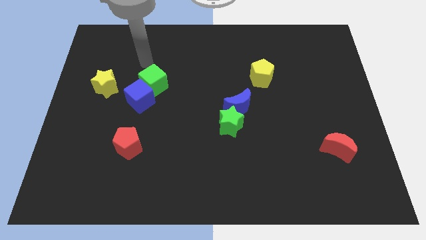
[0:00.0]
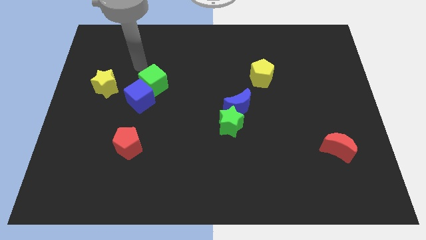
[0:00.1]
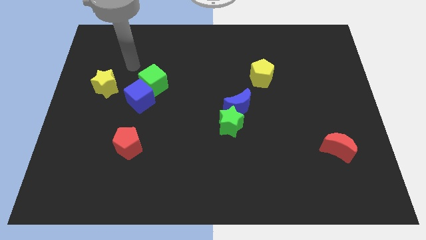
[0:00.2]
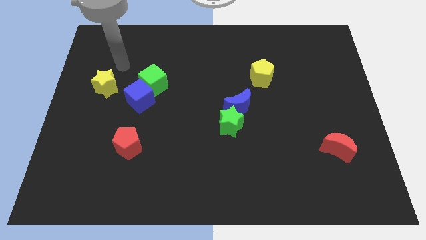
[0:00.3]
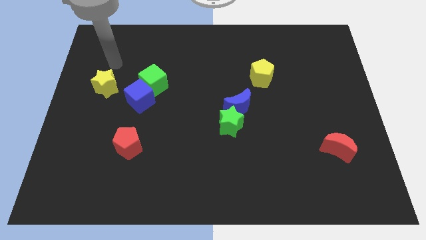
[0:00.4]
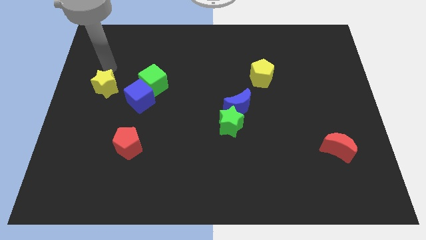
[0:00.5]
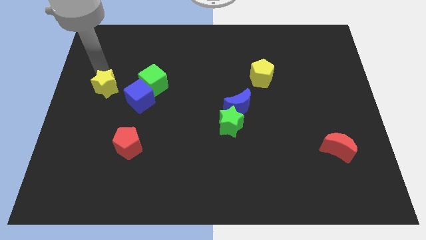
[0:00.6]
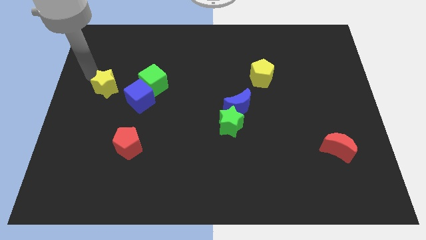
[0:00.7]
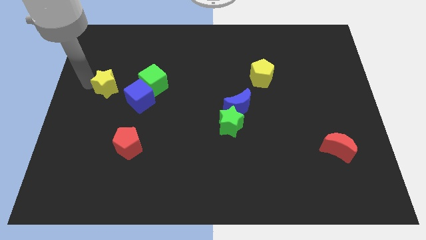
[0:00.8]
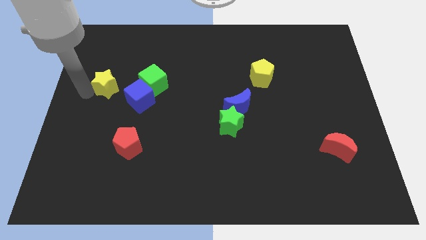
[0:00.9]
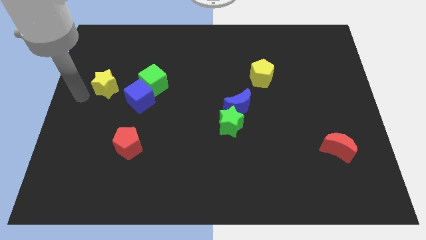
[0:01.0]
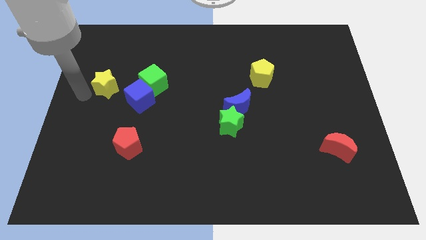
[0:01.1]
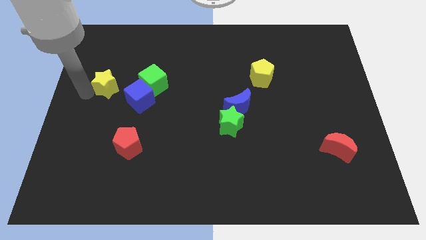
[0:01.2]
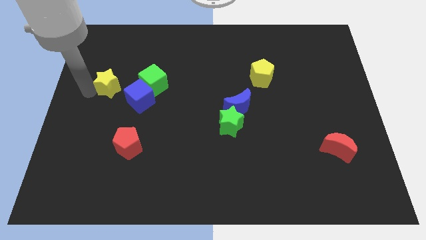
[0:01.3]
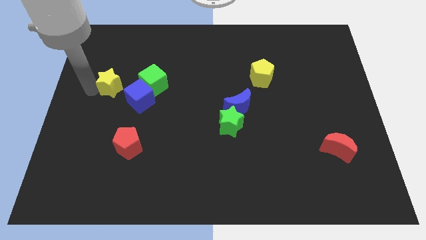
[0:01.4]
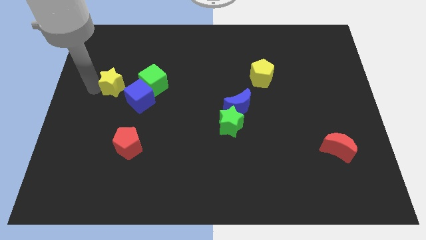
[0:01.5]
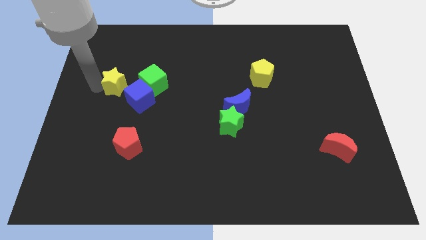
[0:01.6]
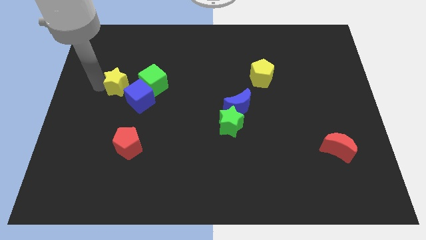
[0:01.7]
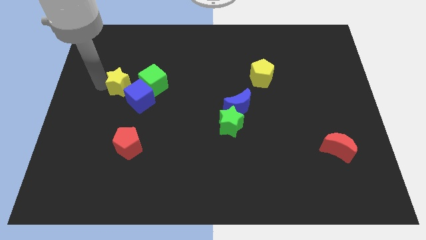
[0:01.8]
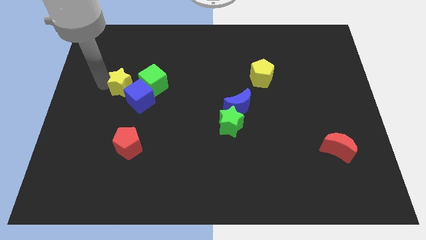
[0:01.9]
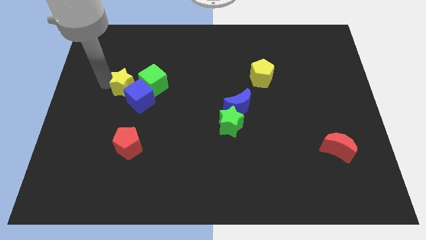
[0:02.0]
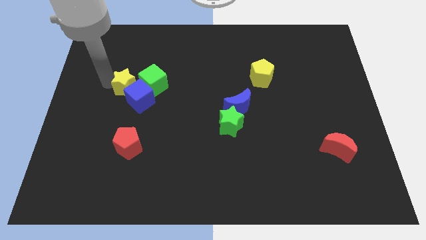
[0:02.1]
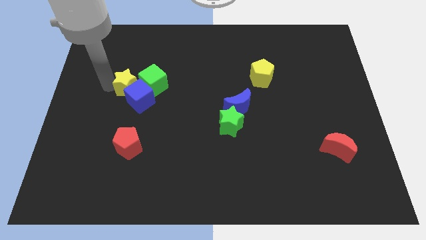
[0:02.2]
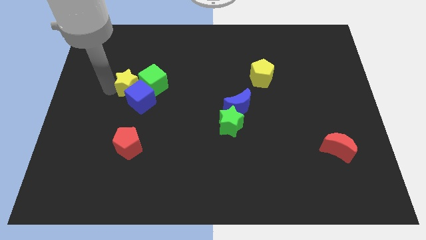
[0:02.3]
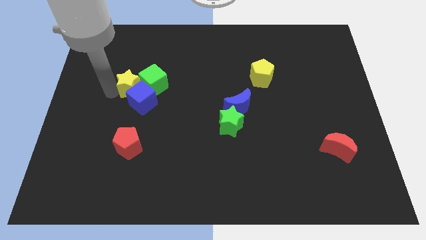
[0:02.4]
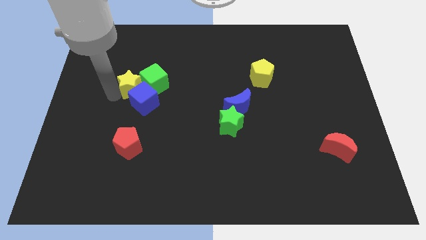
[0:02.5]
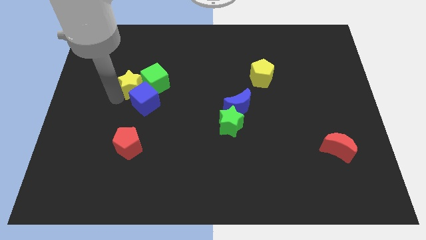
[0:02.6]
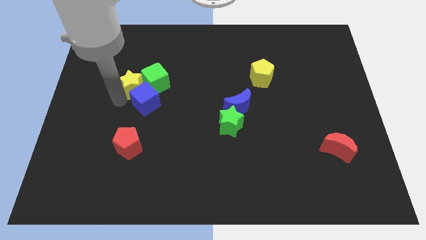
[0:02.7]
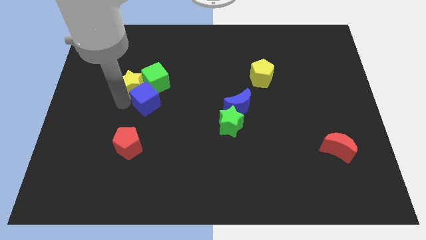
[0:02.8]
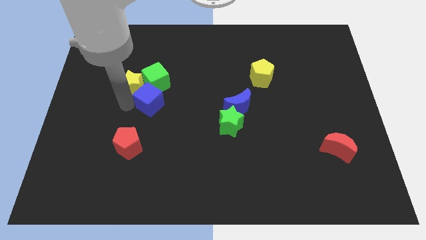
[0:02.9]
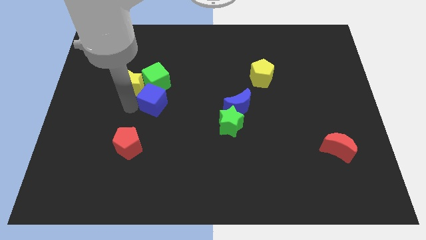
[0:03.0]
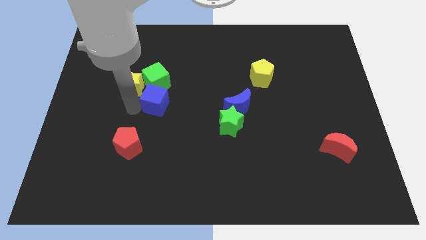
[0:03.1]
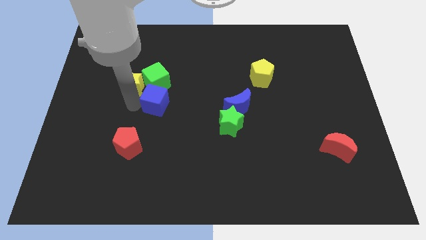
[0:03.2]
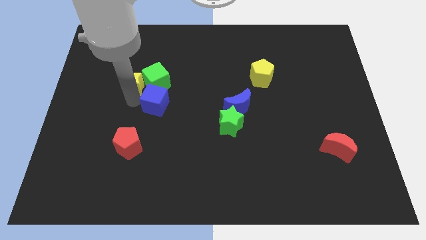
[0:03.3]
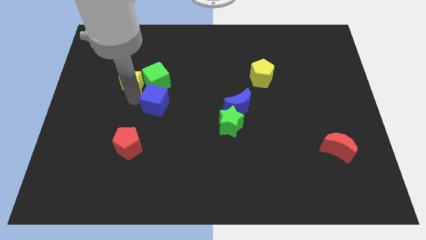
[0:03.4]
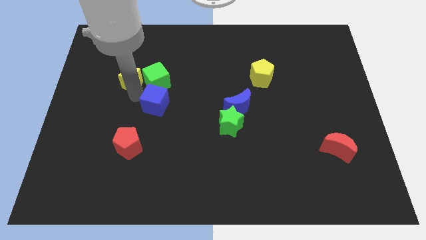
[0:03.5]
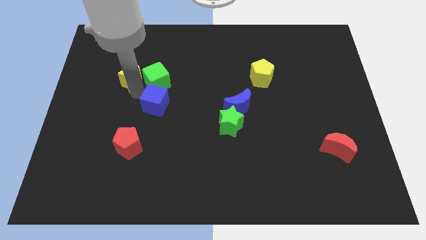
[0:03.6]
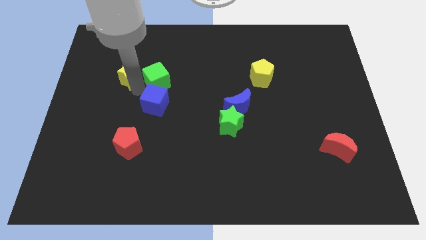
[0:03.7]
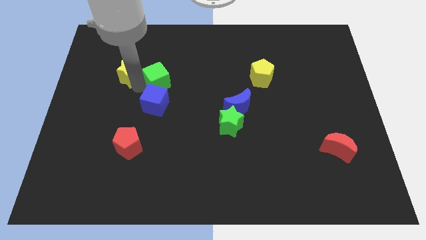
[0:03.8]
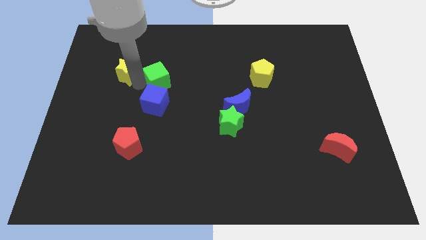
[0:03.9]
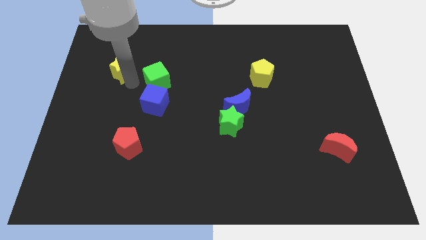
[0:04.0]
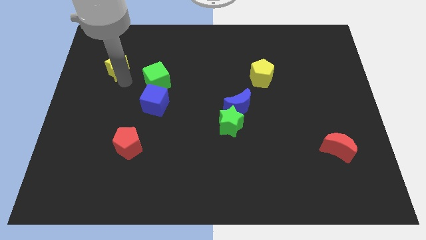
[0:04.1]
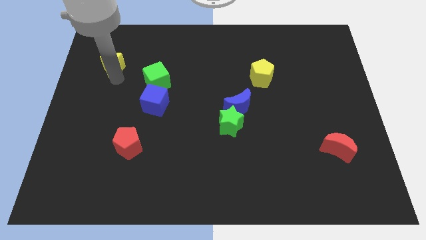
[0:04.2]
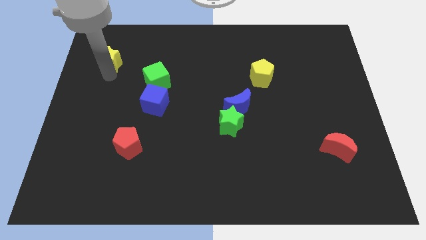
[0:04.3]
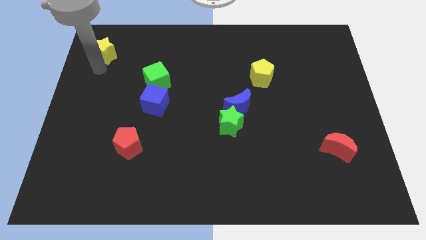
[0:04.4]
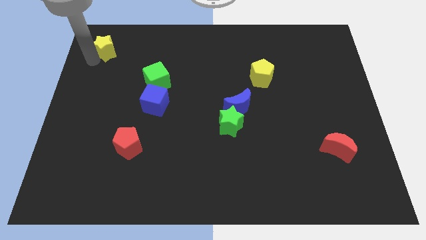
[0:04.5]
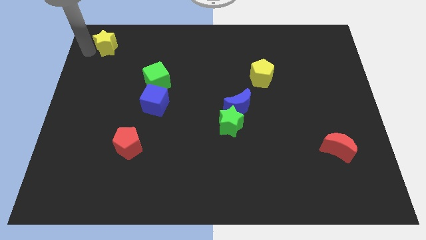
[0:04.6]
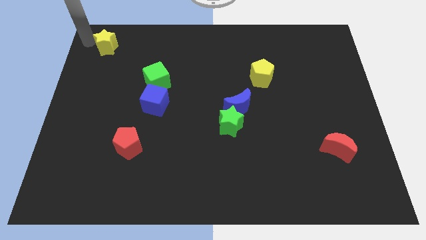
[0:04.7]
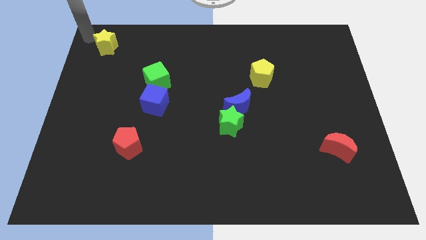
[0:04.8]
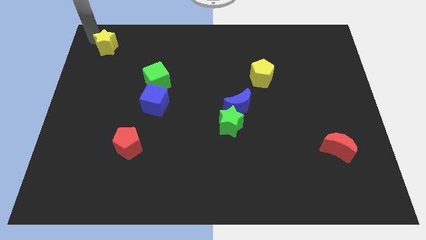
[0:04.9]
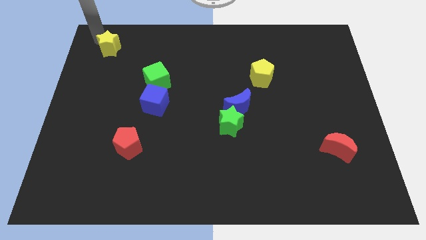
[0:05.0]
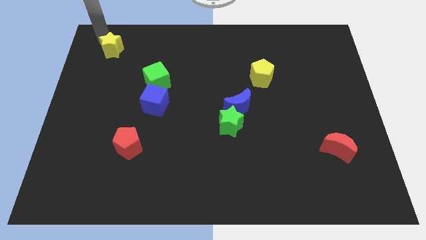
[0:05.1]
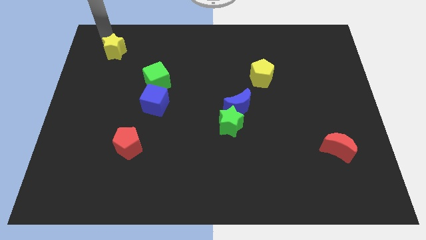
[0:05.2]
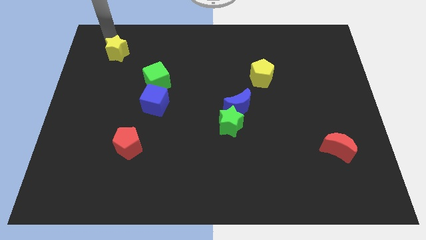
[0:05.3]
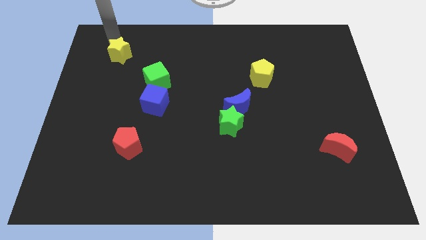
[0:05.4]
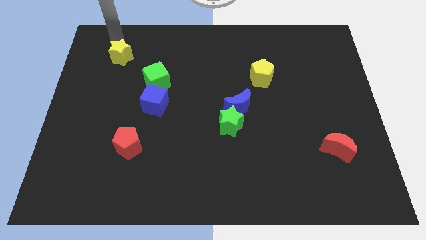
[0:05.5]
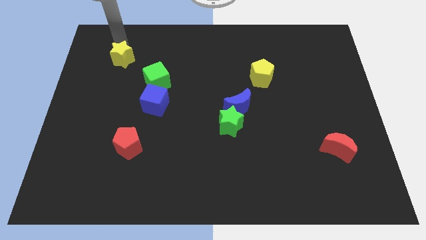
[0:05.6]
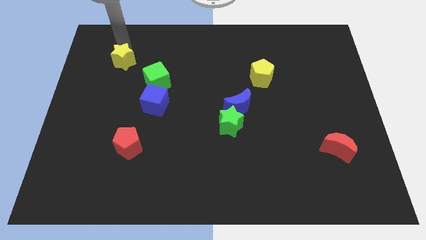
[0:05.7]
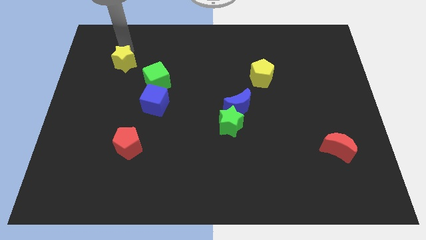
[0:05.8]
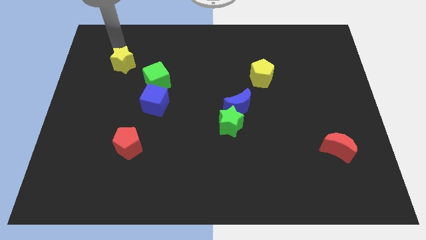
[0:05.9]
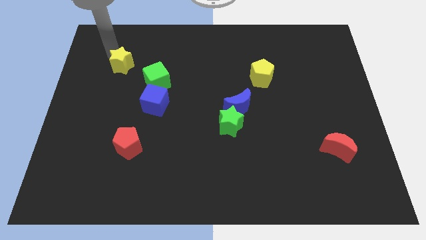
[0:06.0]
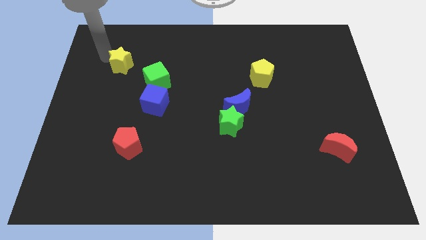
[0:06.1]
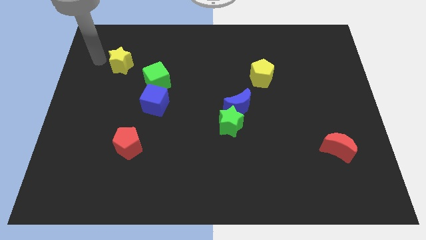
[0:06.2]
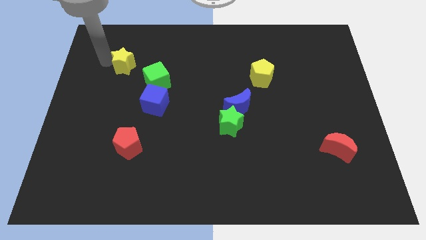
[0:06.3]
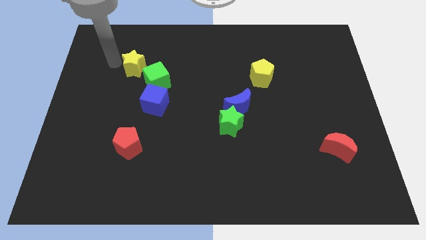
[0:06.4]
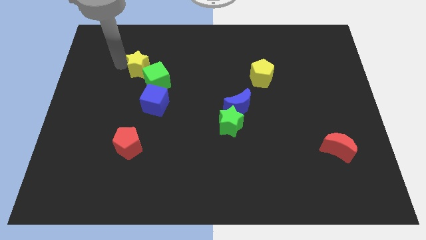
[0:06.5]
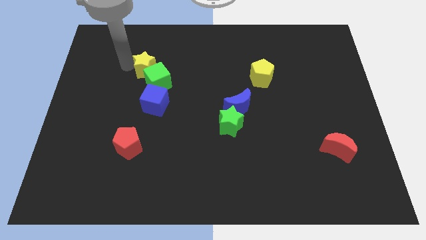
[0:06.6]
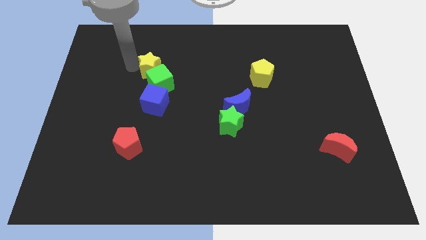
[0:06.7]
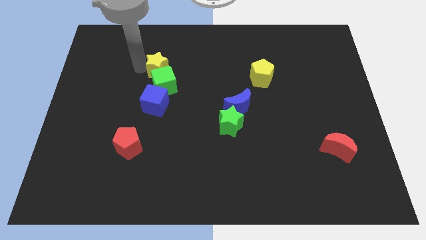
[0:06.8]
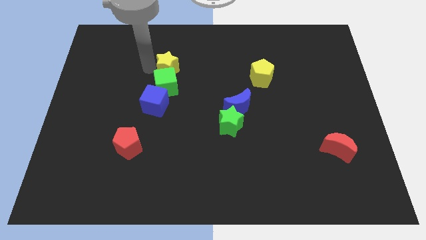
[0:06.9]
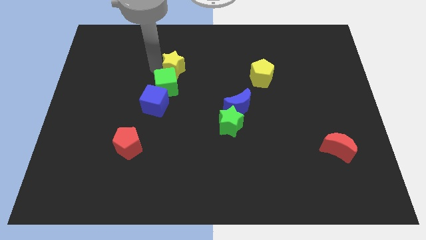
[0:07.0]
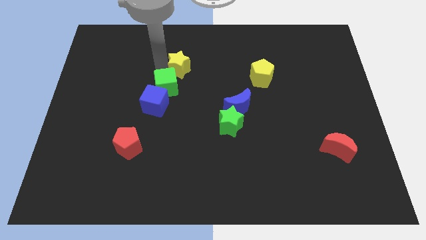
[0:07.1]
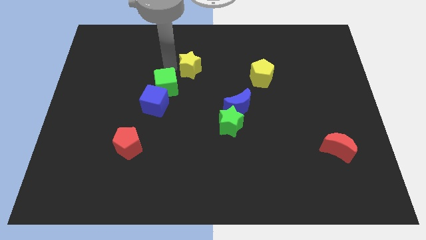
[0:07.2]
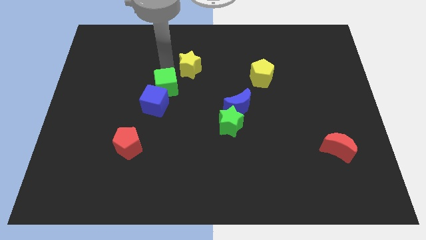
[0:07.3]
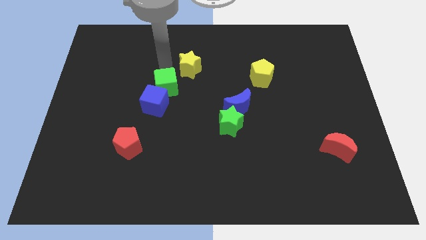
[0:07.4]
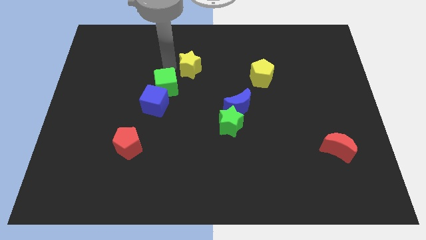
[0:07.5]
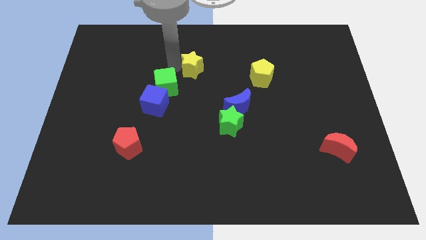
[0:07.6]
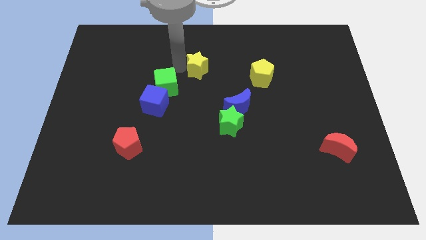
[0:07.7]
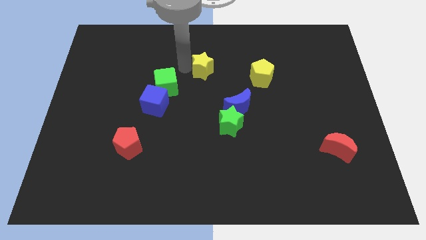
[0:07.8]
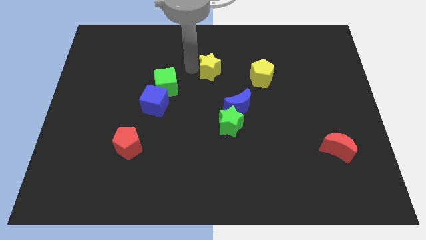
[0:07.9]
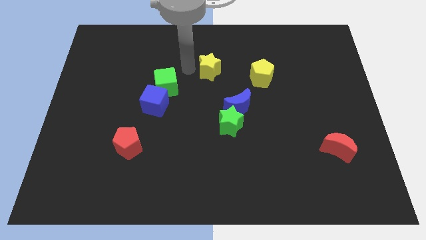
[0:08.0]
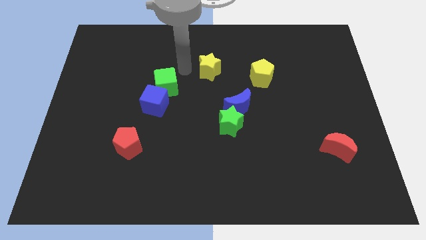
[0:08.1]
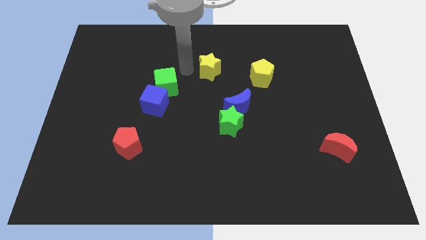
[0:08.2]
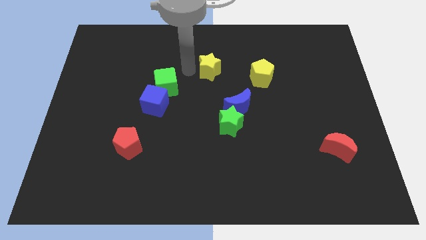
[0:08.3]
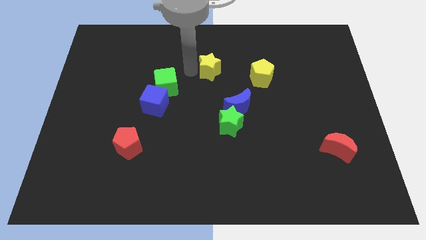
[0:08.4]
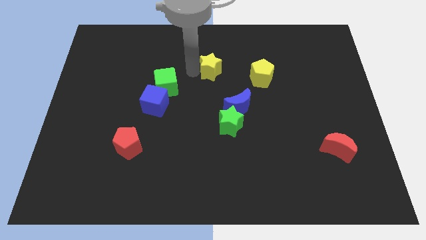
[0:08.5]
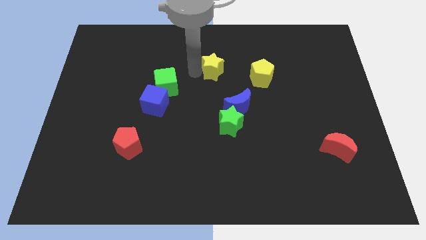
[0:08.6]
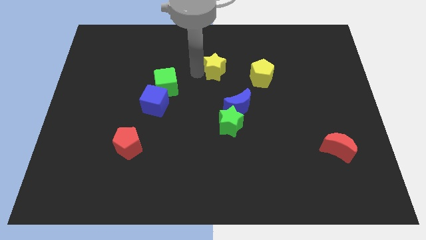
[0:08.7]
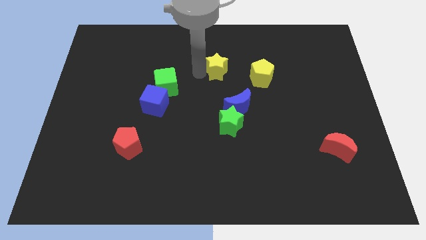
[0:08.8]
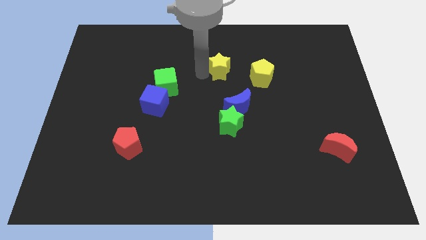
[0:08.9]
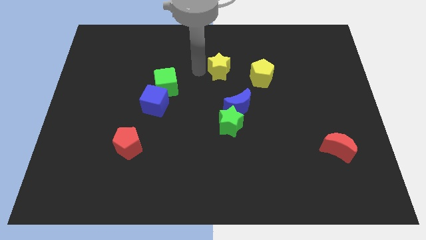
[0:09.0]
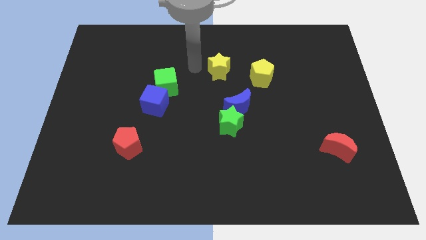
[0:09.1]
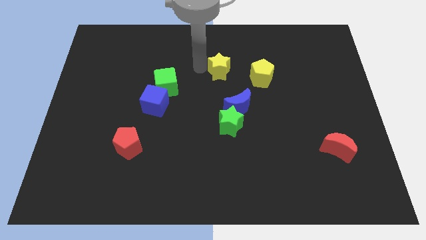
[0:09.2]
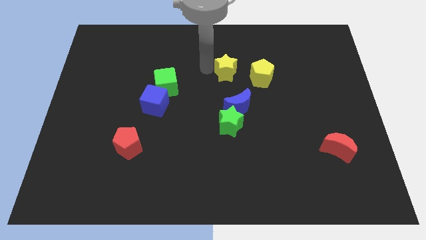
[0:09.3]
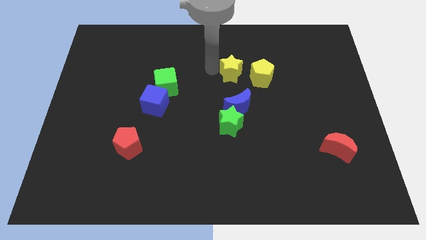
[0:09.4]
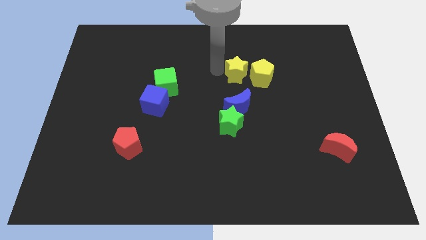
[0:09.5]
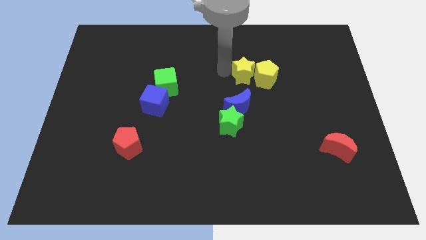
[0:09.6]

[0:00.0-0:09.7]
push the yellow star next to the yellow pentagon
